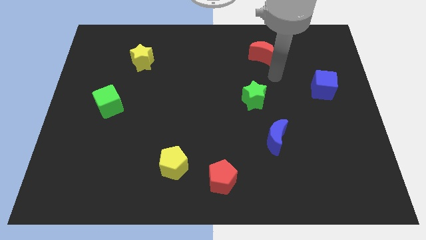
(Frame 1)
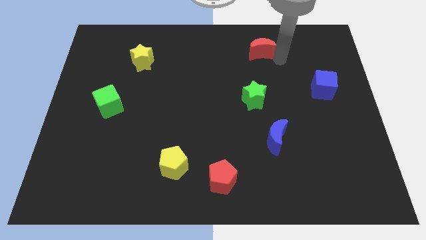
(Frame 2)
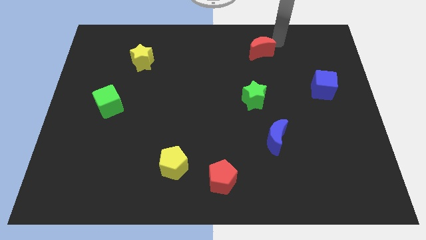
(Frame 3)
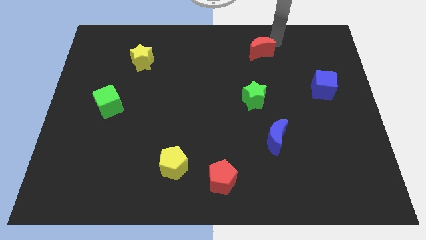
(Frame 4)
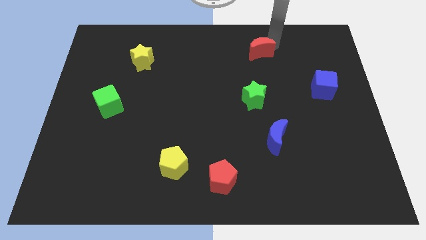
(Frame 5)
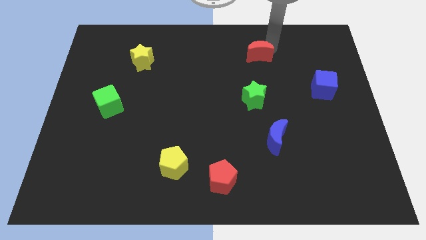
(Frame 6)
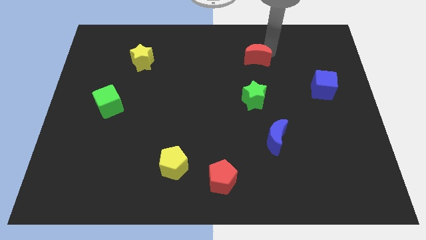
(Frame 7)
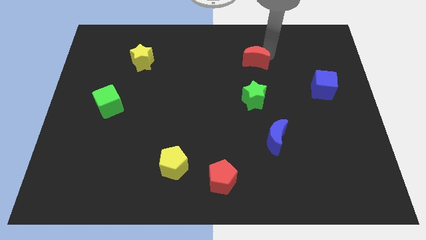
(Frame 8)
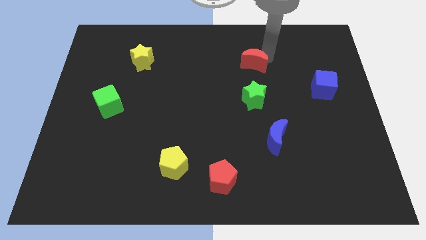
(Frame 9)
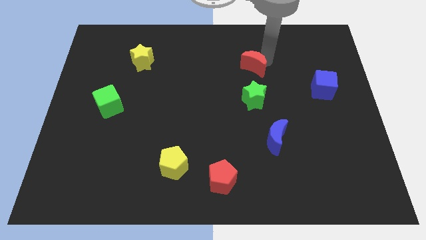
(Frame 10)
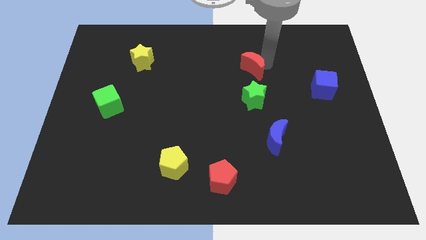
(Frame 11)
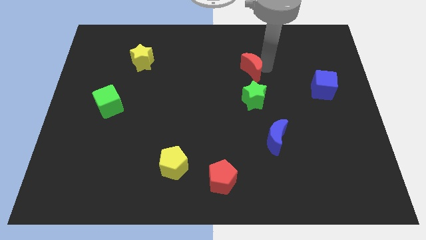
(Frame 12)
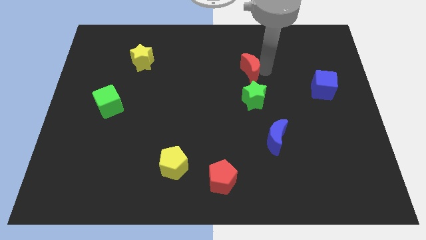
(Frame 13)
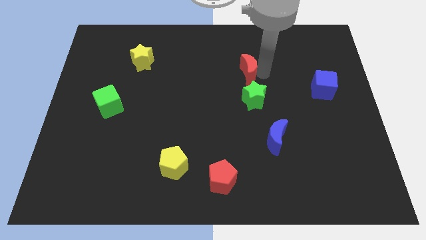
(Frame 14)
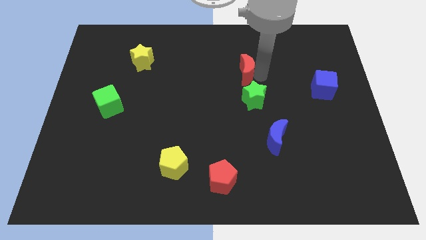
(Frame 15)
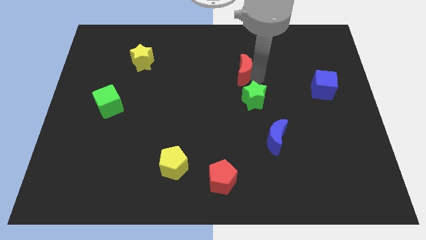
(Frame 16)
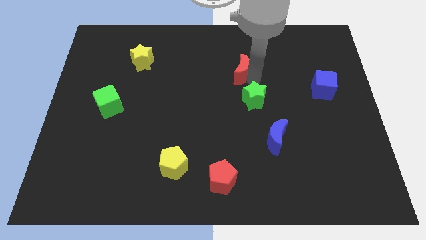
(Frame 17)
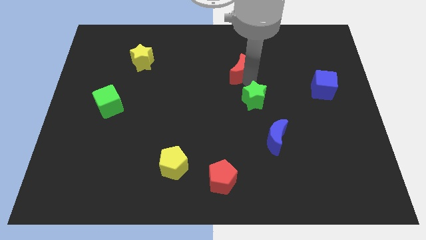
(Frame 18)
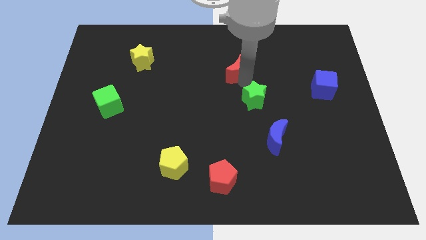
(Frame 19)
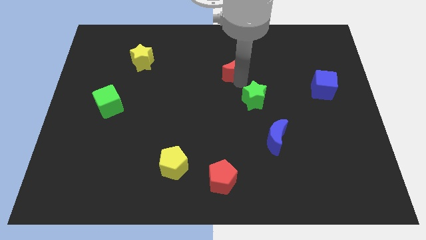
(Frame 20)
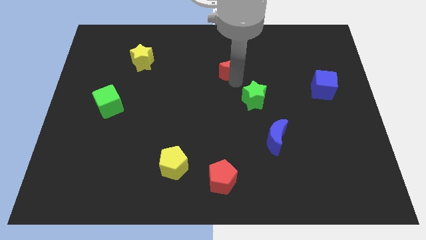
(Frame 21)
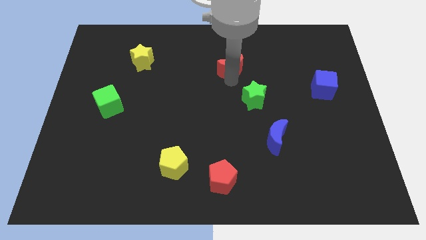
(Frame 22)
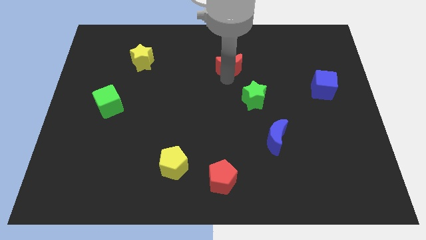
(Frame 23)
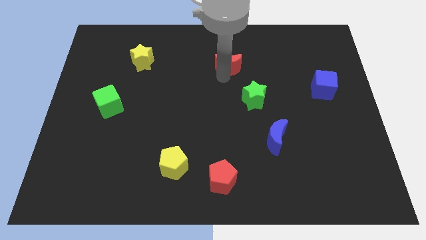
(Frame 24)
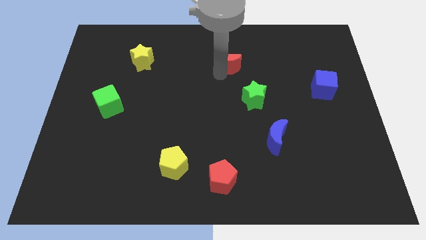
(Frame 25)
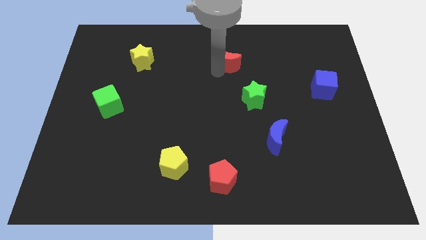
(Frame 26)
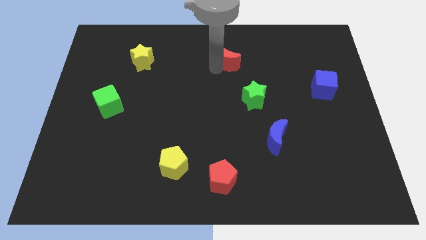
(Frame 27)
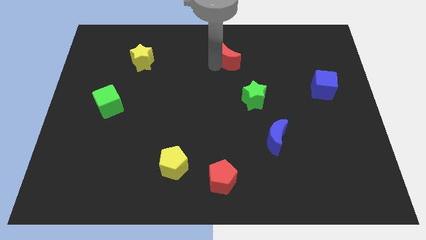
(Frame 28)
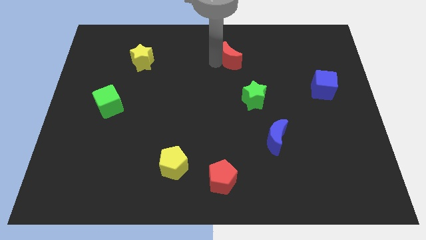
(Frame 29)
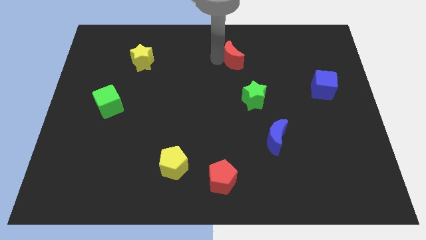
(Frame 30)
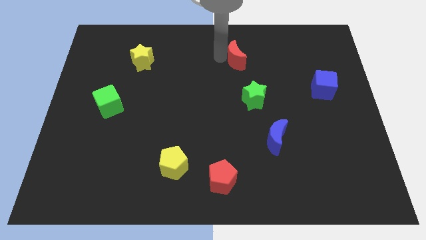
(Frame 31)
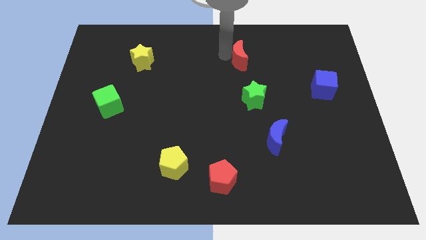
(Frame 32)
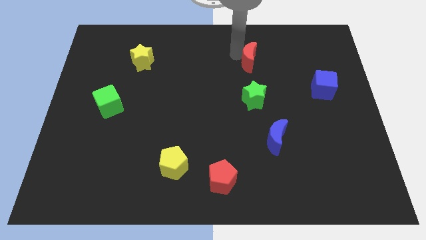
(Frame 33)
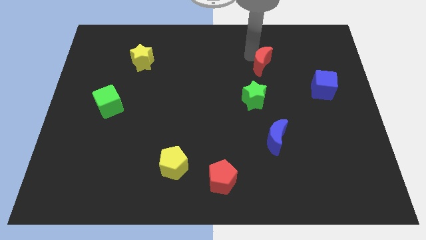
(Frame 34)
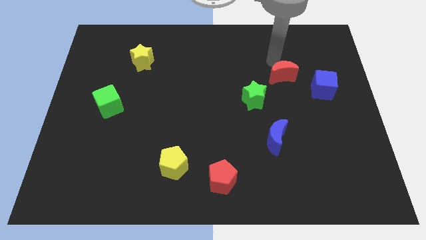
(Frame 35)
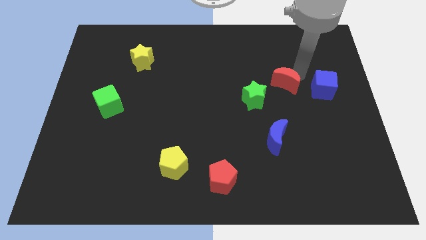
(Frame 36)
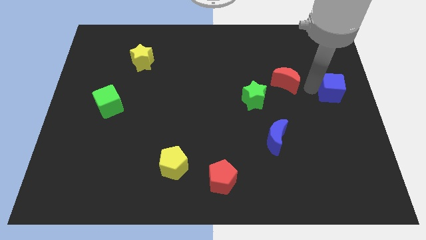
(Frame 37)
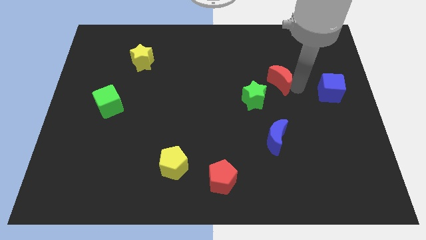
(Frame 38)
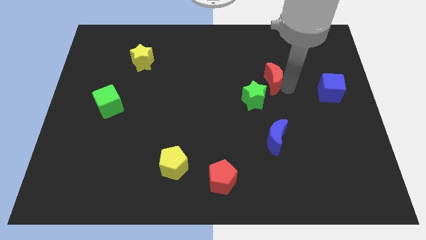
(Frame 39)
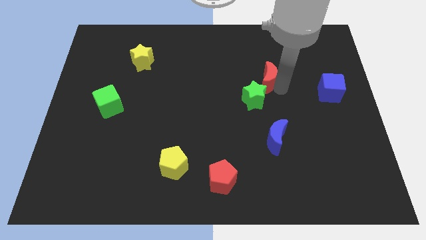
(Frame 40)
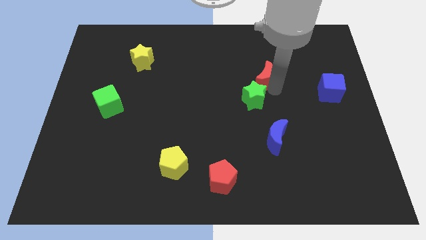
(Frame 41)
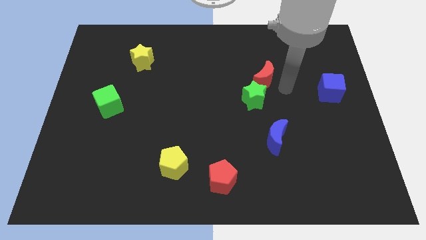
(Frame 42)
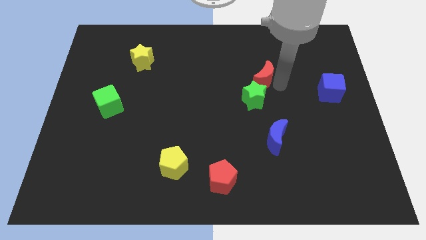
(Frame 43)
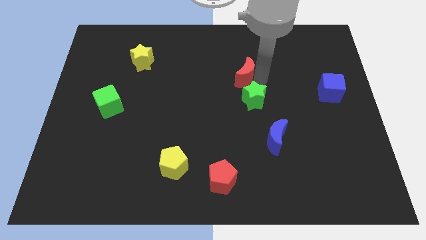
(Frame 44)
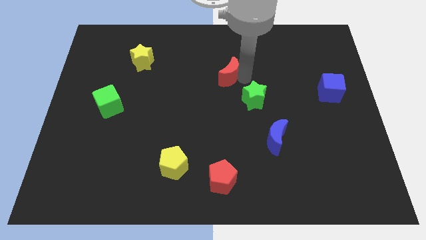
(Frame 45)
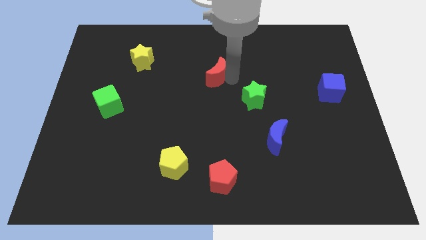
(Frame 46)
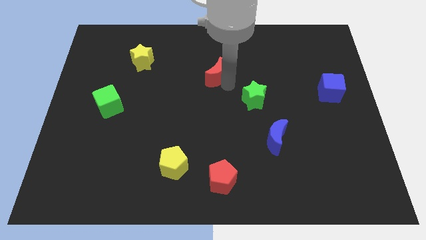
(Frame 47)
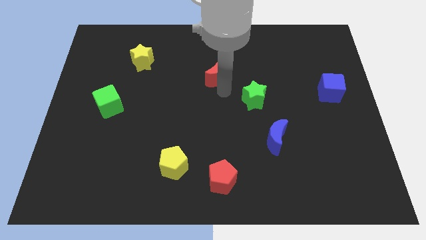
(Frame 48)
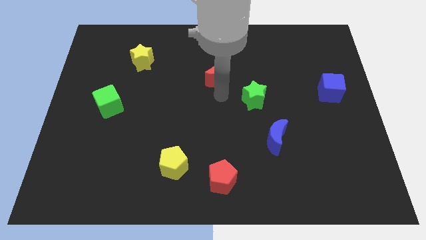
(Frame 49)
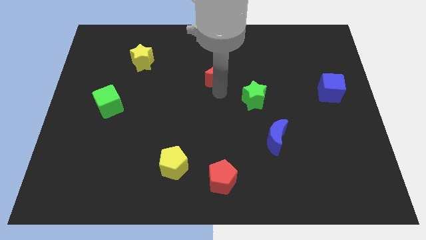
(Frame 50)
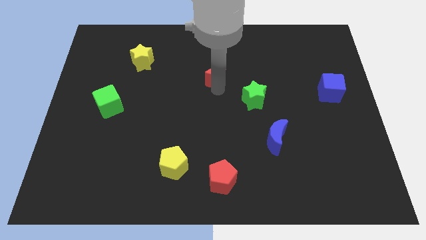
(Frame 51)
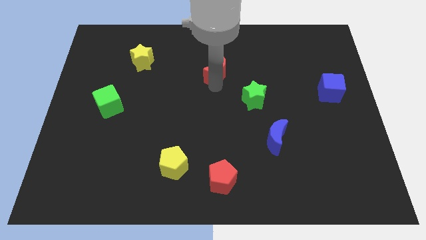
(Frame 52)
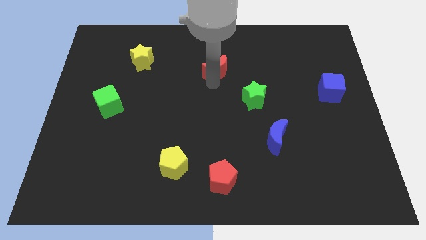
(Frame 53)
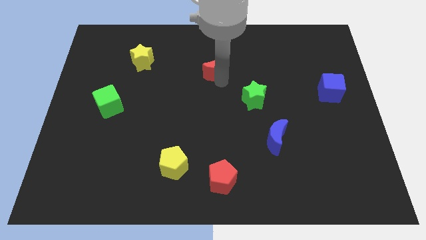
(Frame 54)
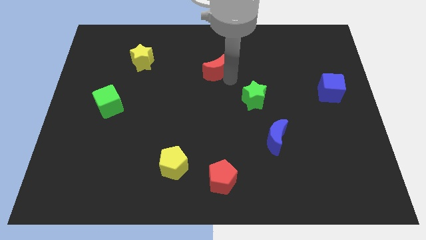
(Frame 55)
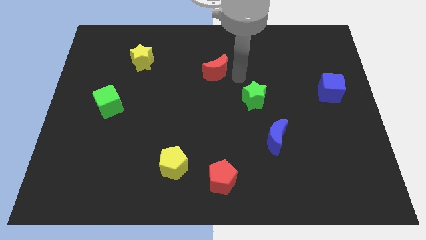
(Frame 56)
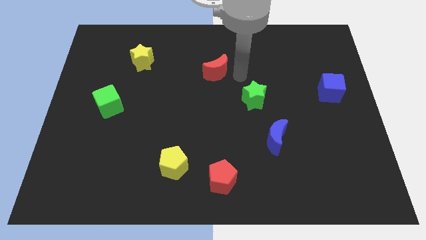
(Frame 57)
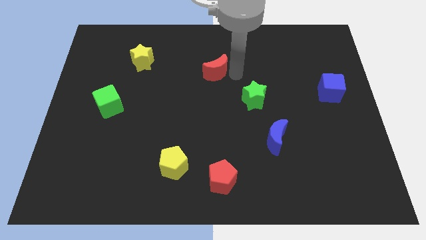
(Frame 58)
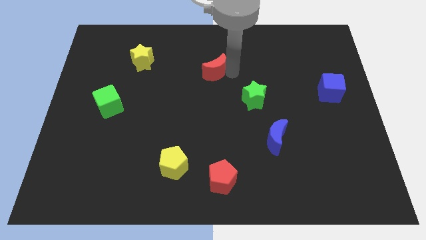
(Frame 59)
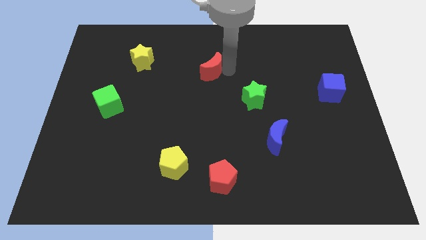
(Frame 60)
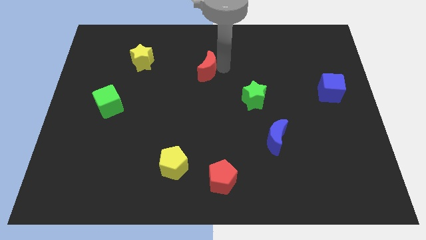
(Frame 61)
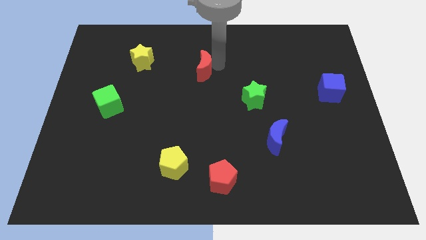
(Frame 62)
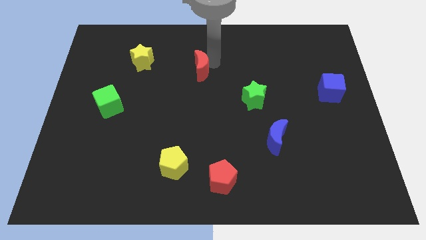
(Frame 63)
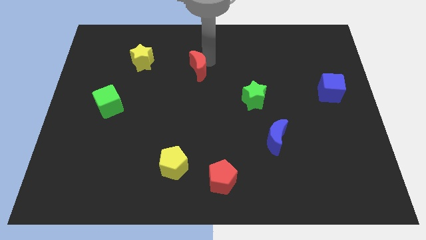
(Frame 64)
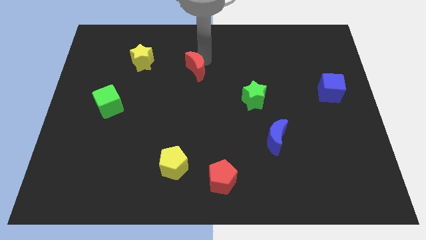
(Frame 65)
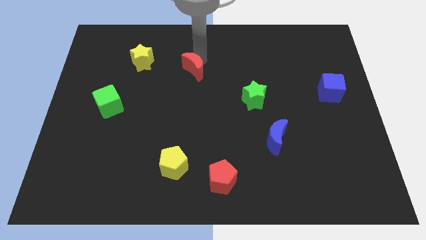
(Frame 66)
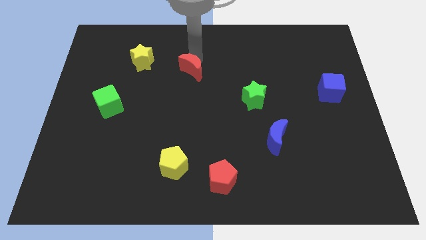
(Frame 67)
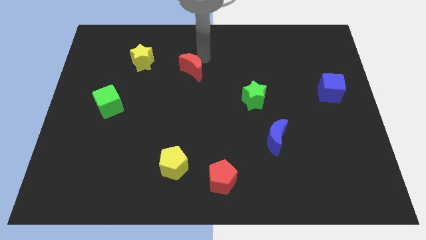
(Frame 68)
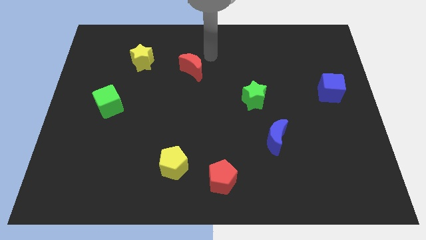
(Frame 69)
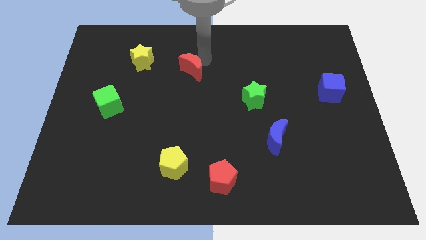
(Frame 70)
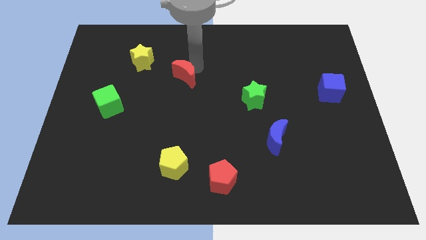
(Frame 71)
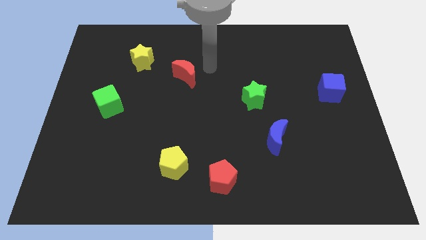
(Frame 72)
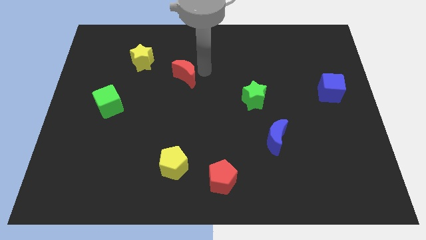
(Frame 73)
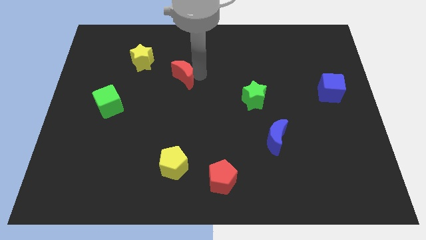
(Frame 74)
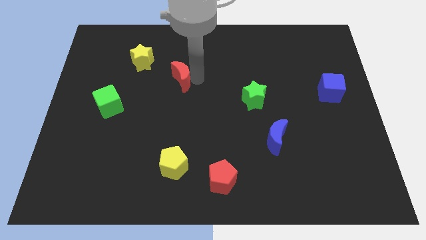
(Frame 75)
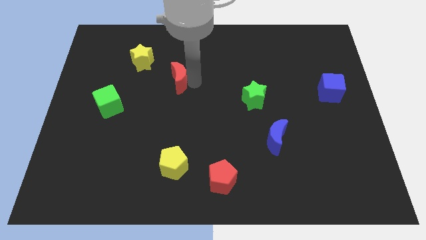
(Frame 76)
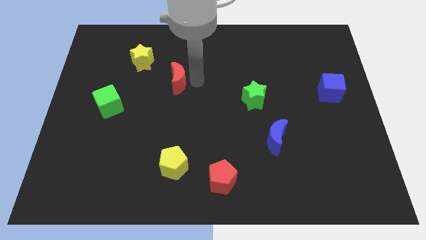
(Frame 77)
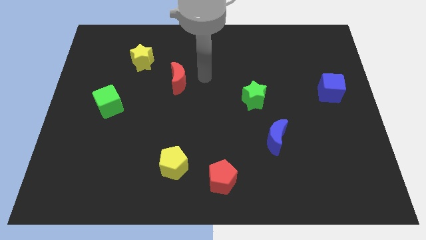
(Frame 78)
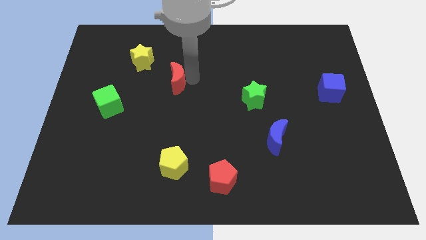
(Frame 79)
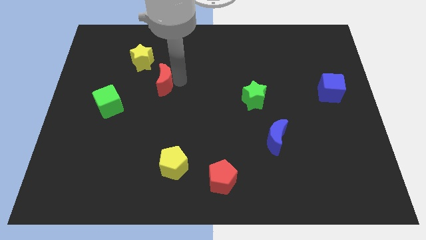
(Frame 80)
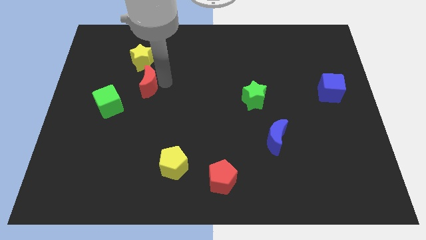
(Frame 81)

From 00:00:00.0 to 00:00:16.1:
push the red moon to the top right side of the green cube
